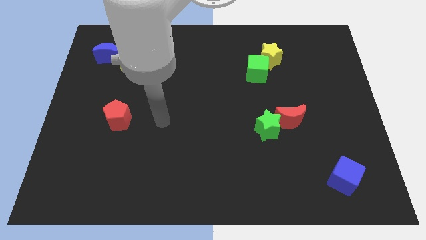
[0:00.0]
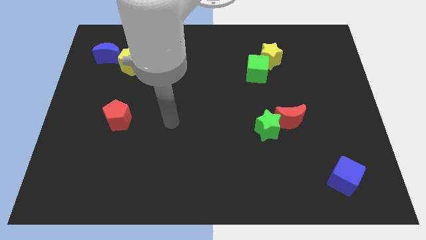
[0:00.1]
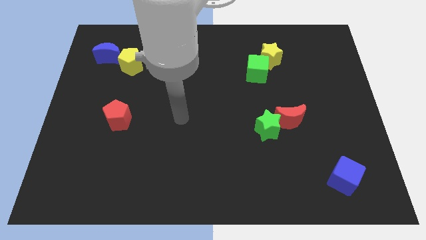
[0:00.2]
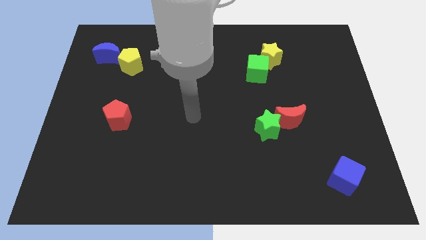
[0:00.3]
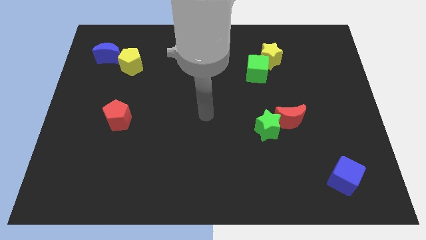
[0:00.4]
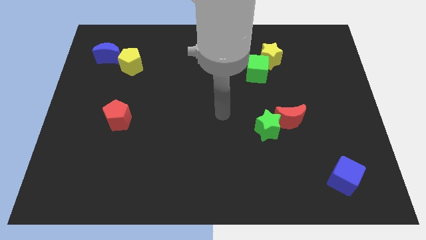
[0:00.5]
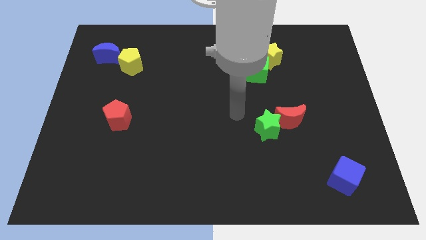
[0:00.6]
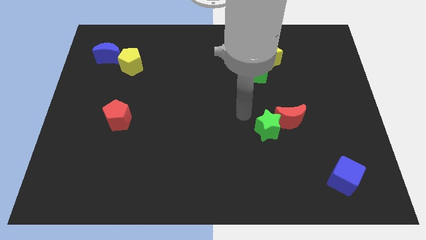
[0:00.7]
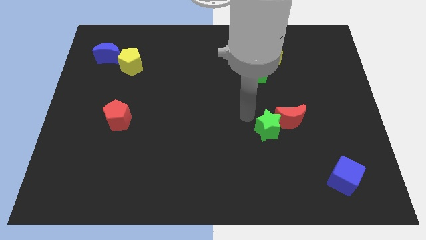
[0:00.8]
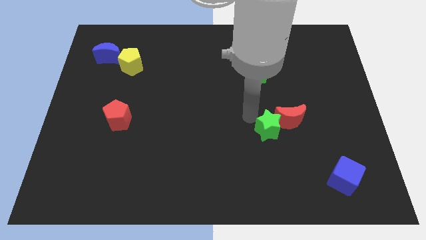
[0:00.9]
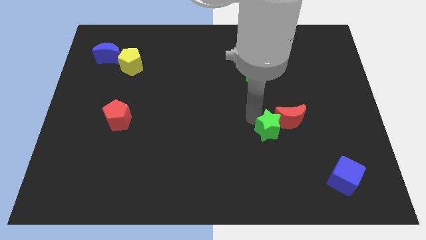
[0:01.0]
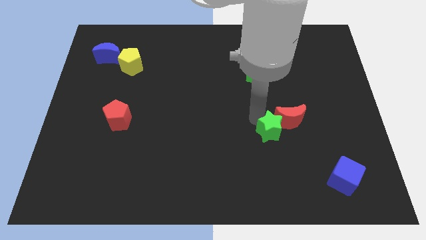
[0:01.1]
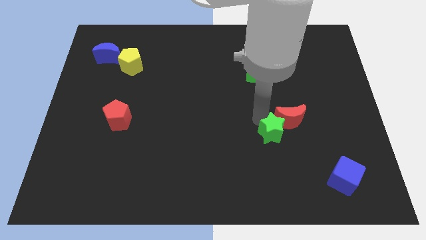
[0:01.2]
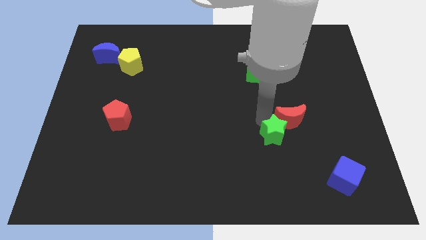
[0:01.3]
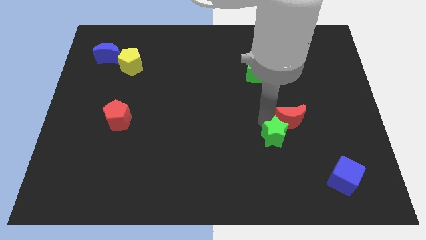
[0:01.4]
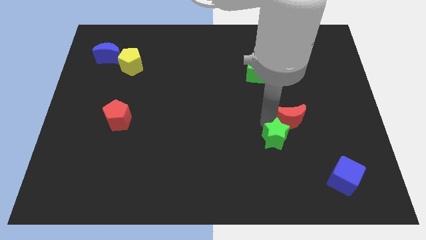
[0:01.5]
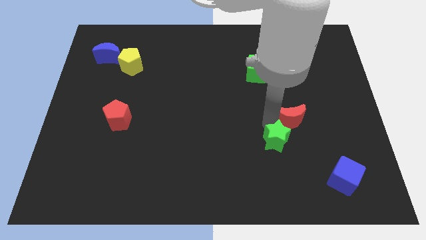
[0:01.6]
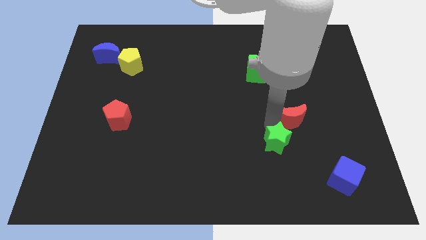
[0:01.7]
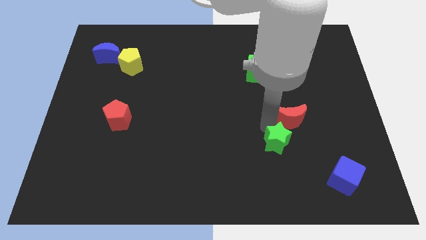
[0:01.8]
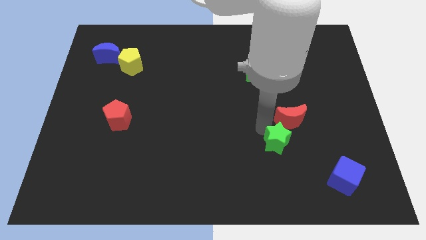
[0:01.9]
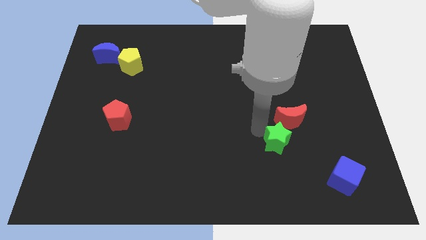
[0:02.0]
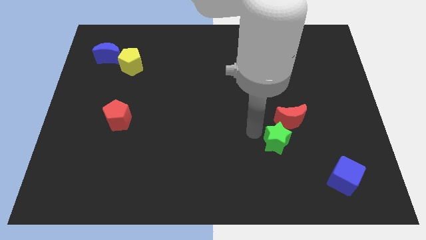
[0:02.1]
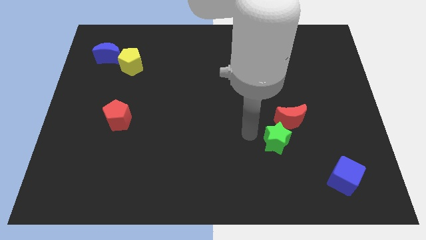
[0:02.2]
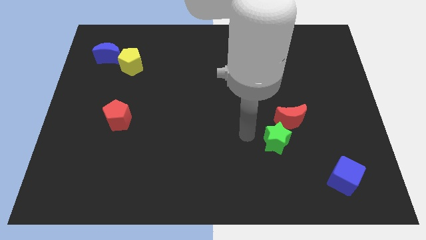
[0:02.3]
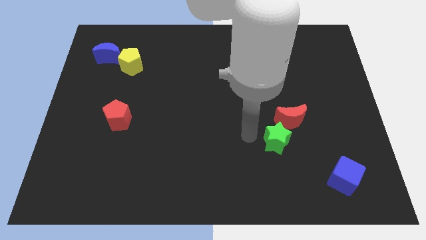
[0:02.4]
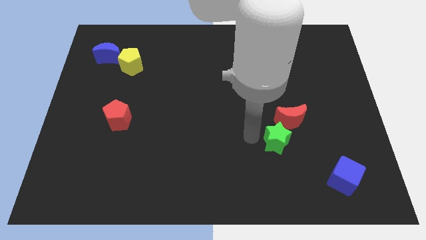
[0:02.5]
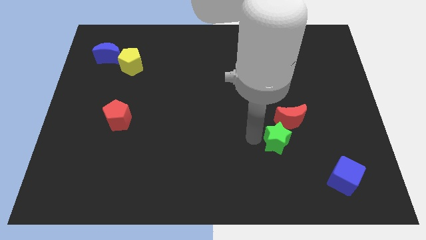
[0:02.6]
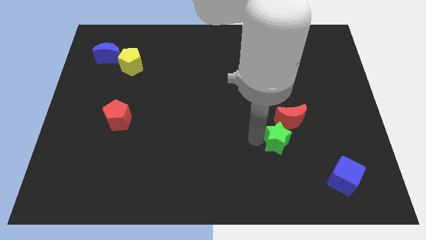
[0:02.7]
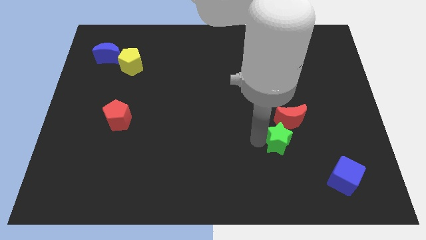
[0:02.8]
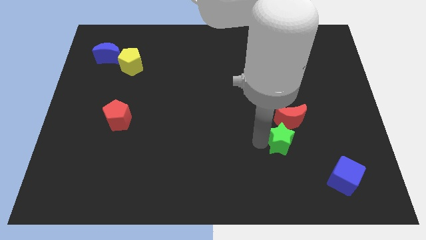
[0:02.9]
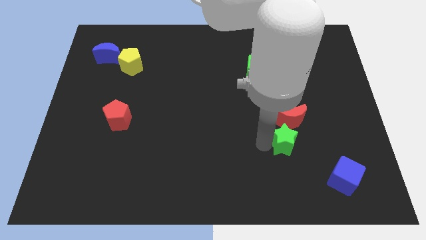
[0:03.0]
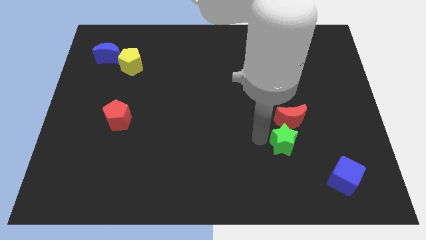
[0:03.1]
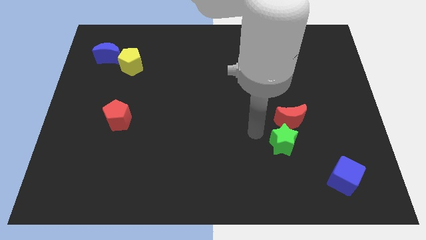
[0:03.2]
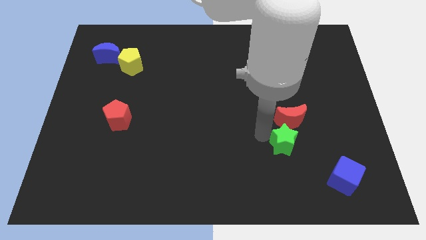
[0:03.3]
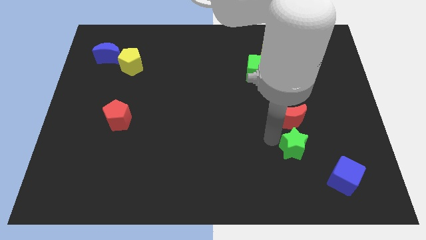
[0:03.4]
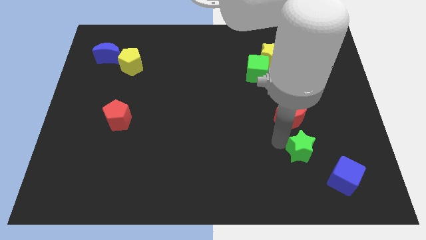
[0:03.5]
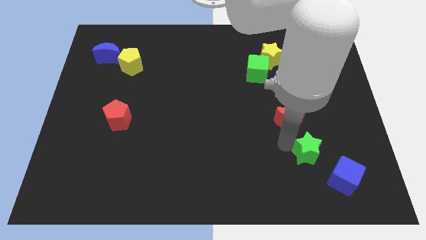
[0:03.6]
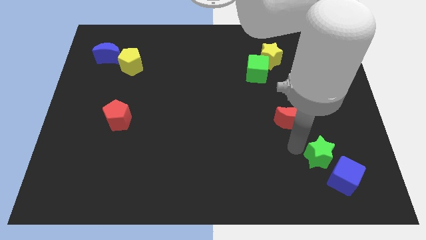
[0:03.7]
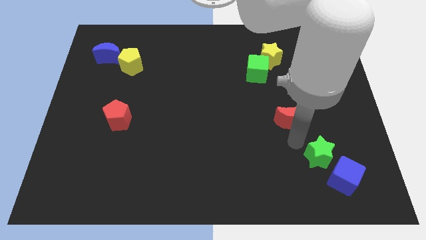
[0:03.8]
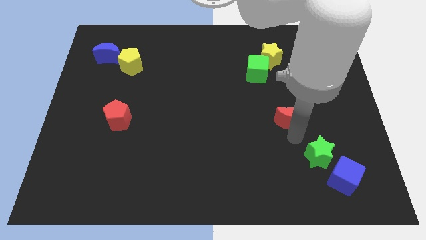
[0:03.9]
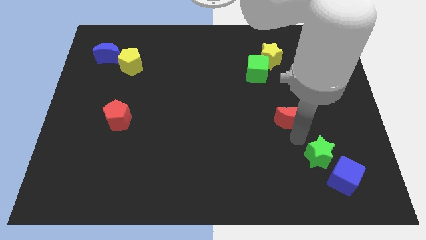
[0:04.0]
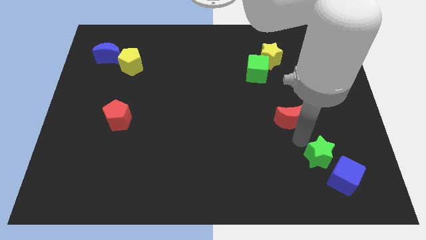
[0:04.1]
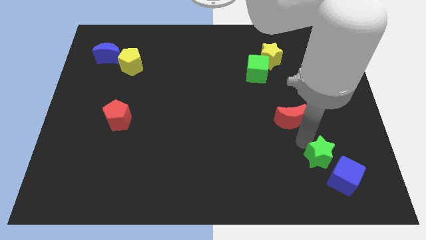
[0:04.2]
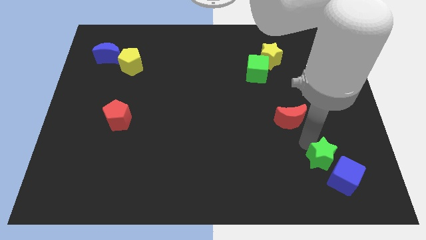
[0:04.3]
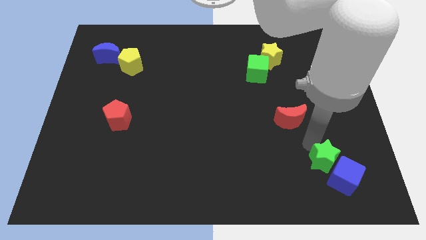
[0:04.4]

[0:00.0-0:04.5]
move the green star towards the blue cube

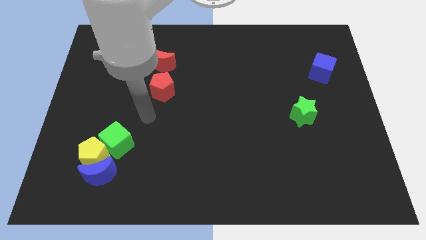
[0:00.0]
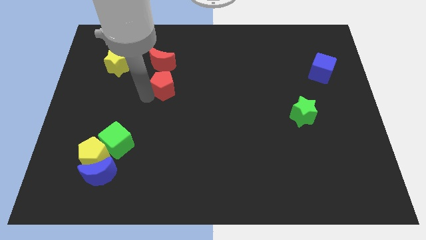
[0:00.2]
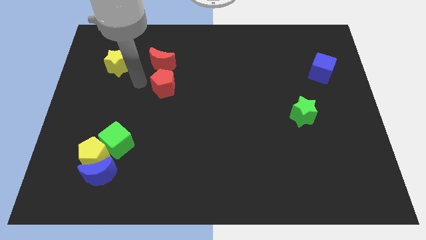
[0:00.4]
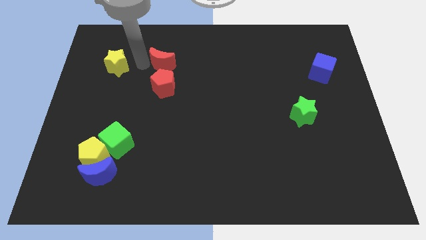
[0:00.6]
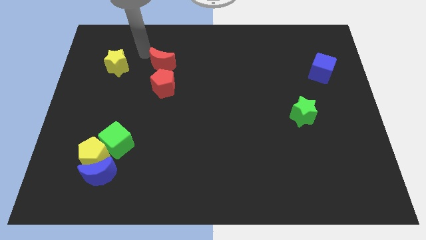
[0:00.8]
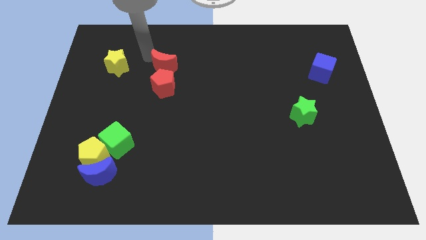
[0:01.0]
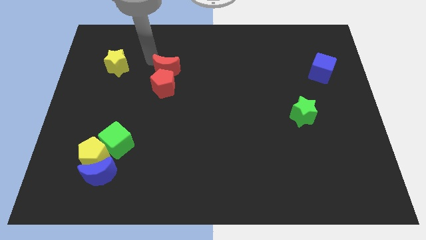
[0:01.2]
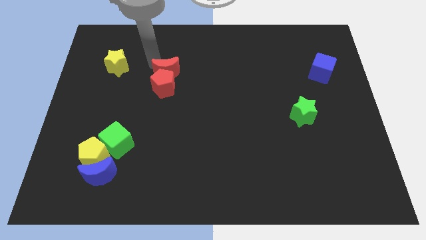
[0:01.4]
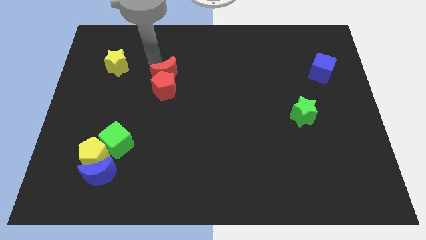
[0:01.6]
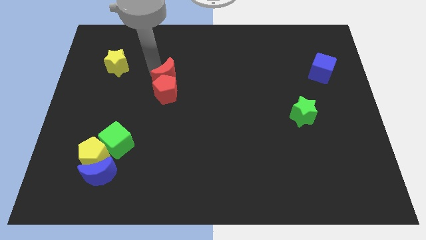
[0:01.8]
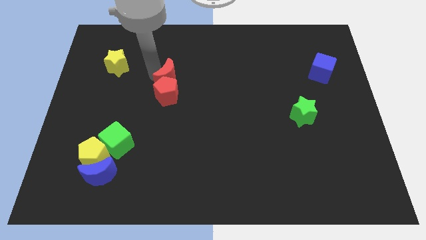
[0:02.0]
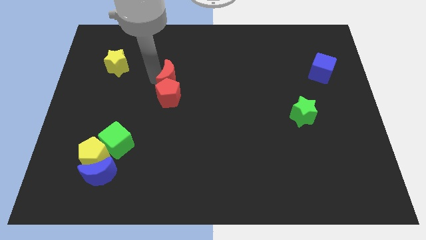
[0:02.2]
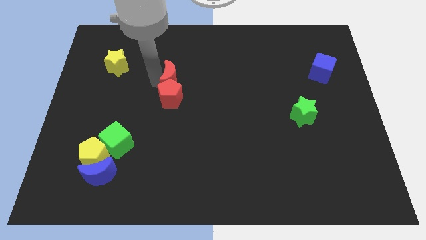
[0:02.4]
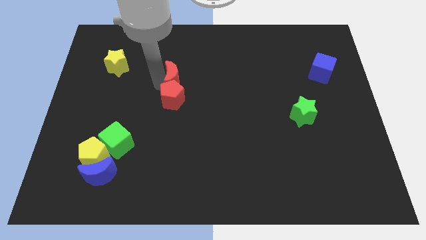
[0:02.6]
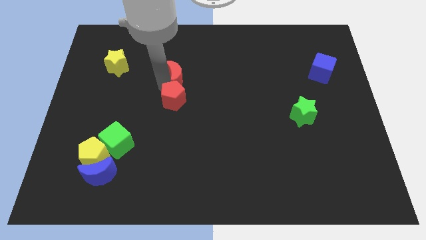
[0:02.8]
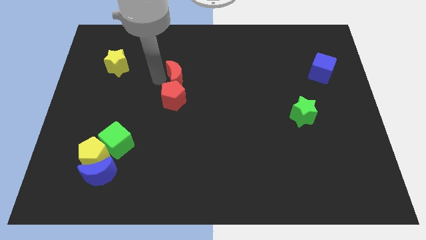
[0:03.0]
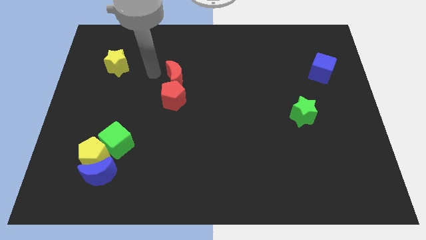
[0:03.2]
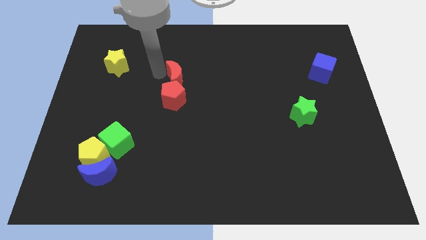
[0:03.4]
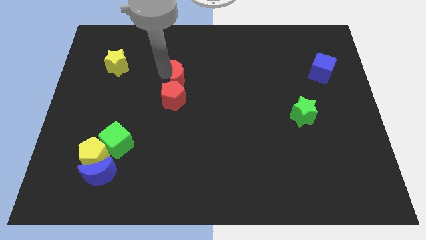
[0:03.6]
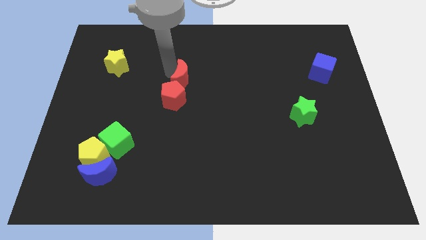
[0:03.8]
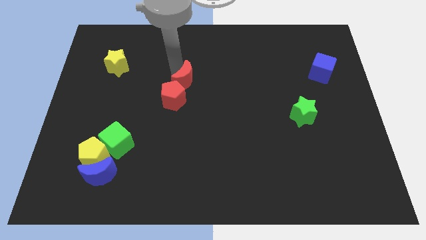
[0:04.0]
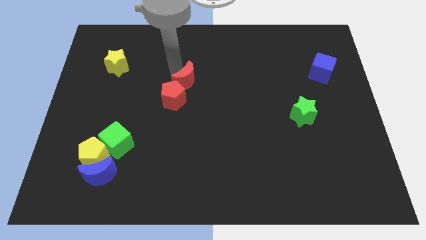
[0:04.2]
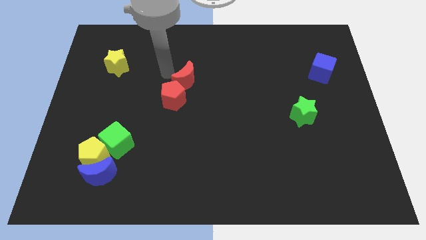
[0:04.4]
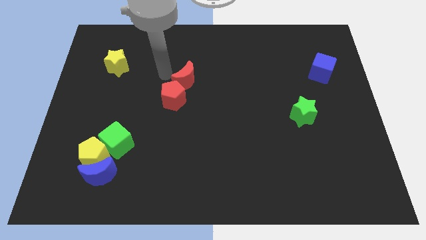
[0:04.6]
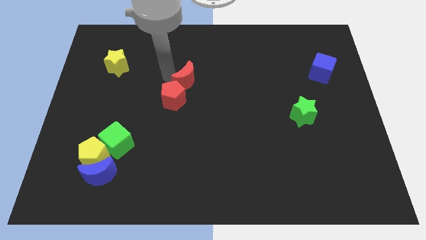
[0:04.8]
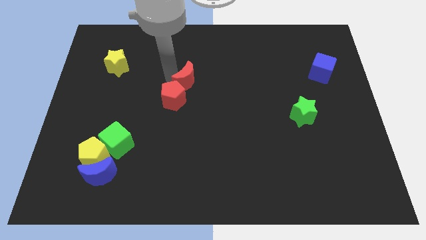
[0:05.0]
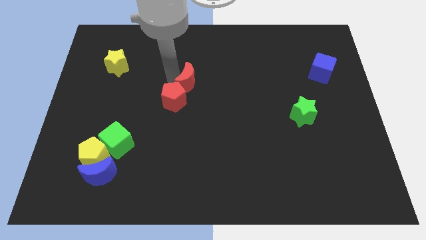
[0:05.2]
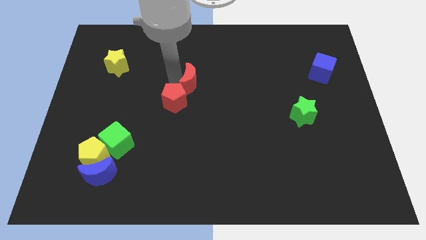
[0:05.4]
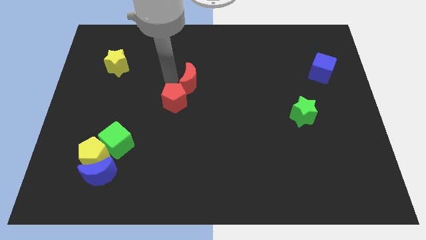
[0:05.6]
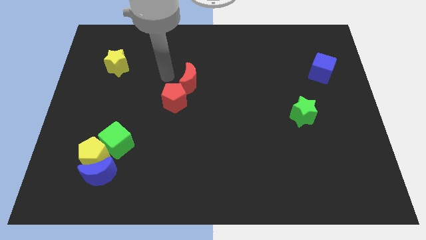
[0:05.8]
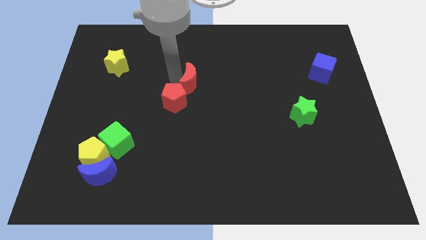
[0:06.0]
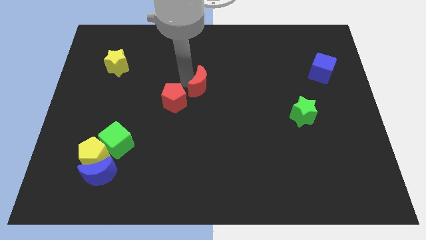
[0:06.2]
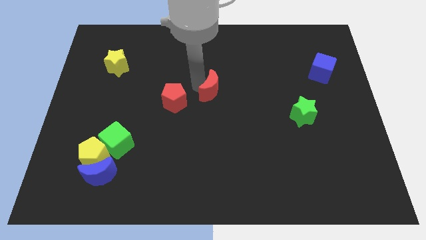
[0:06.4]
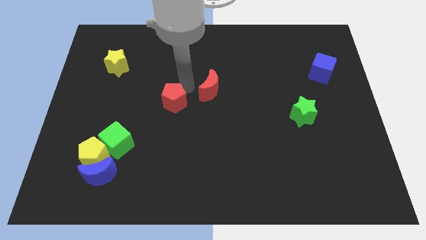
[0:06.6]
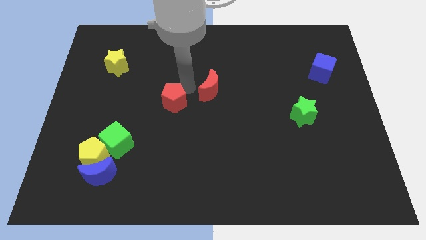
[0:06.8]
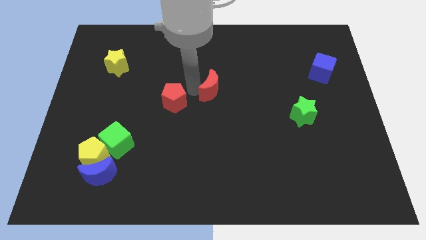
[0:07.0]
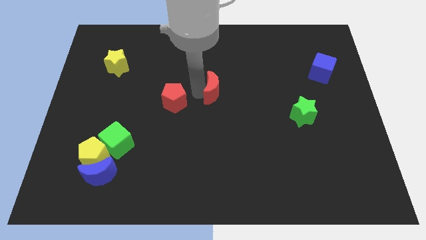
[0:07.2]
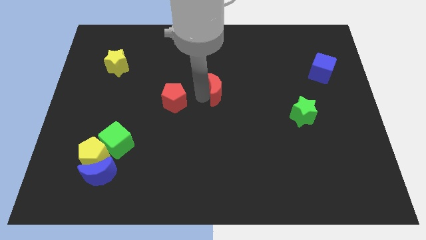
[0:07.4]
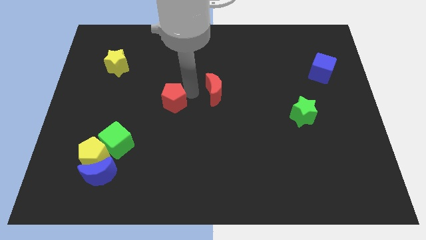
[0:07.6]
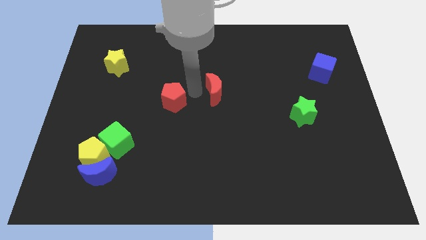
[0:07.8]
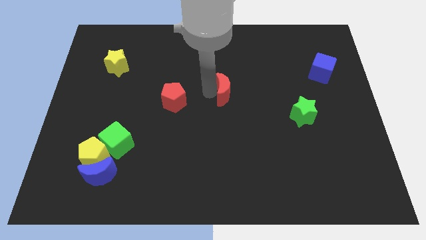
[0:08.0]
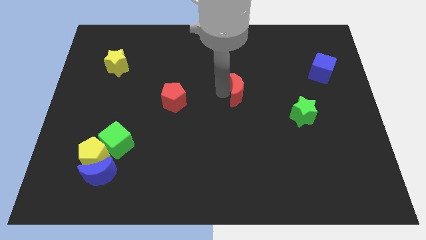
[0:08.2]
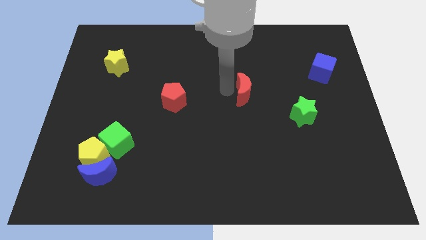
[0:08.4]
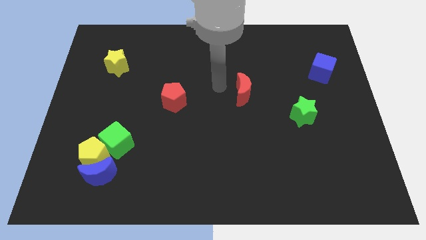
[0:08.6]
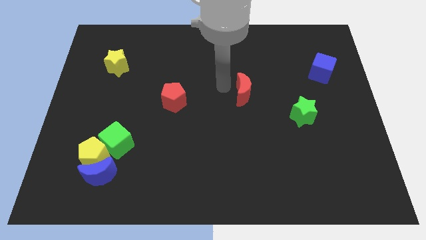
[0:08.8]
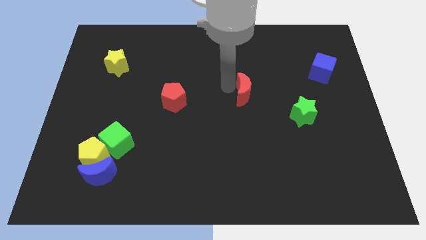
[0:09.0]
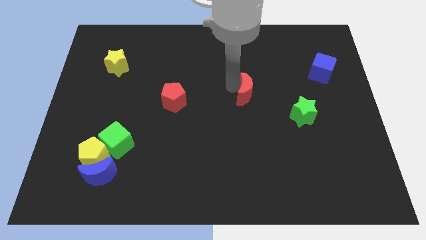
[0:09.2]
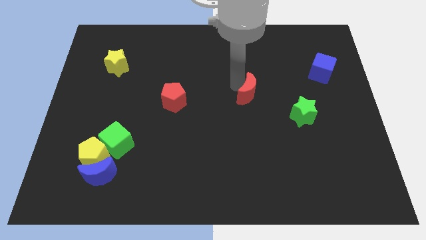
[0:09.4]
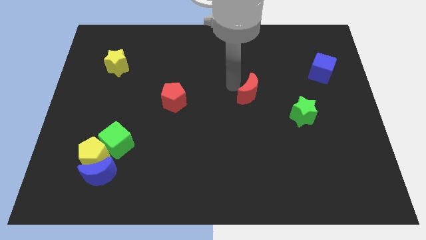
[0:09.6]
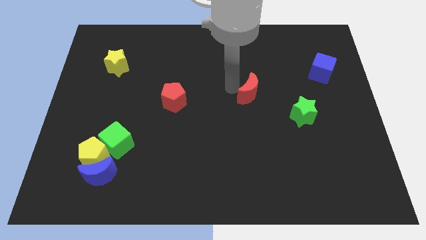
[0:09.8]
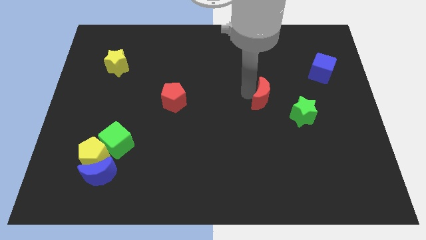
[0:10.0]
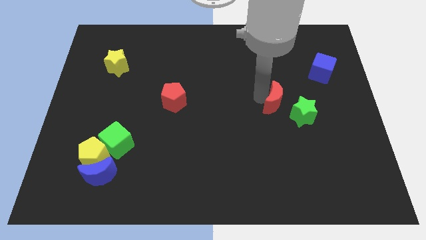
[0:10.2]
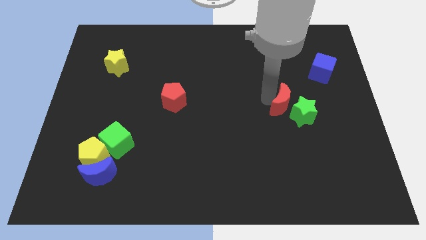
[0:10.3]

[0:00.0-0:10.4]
put the red moon close to the green star
